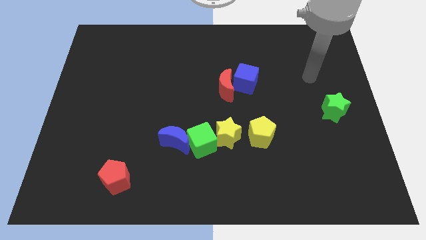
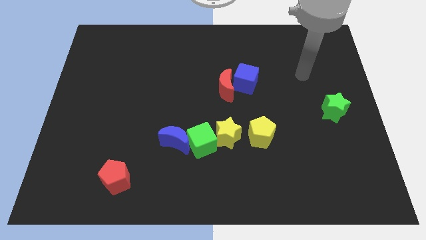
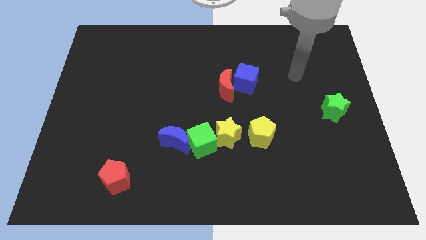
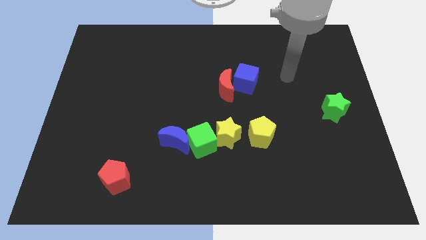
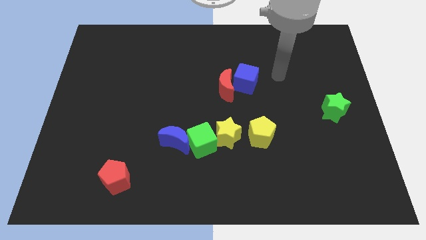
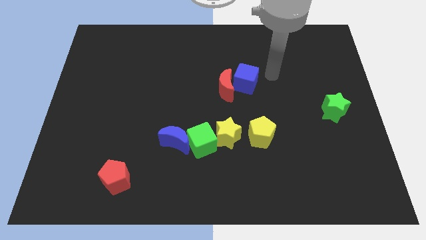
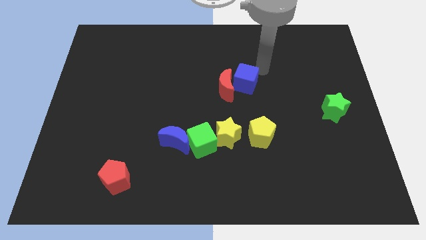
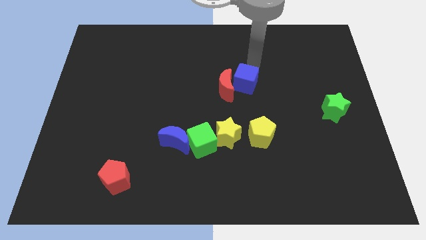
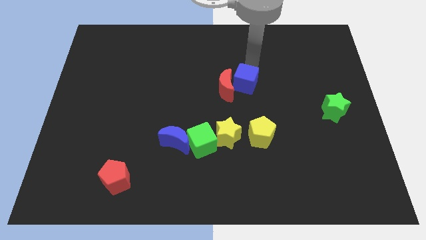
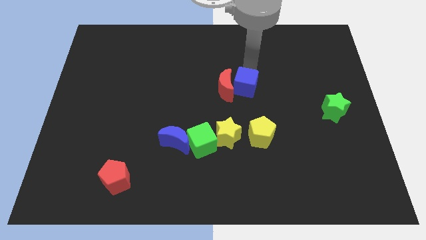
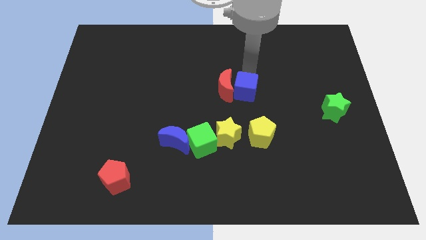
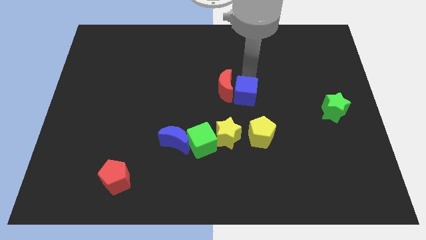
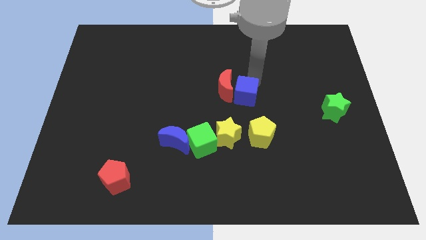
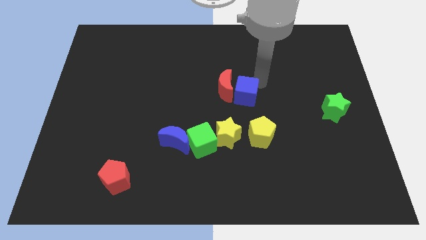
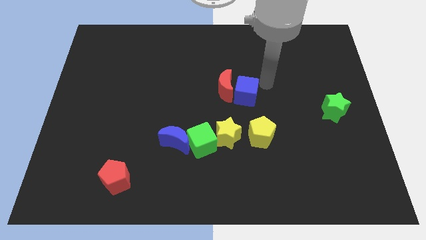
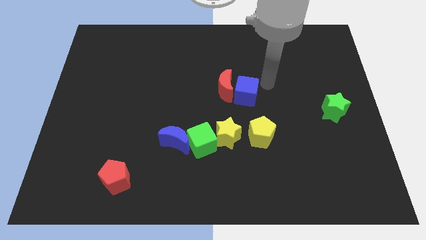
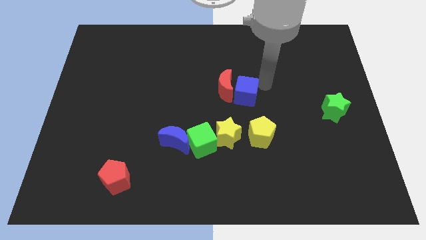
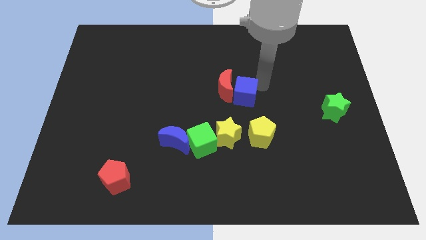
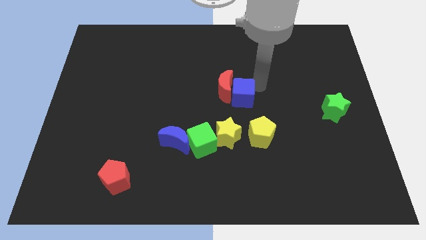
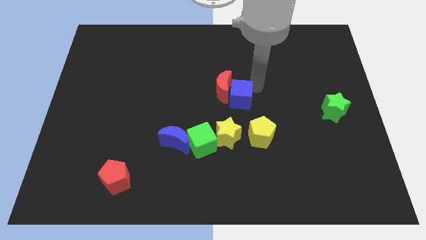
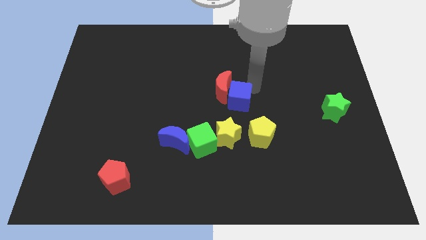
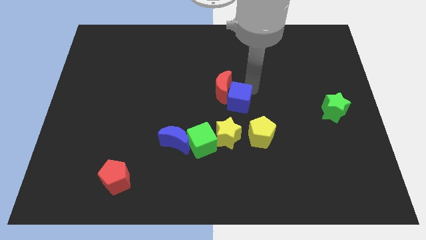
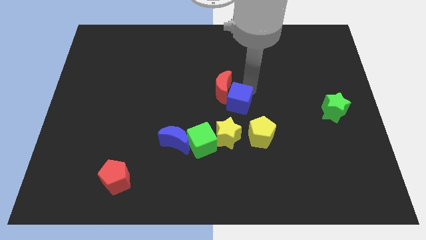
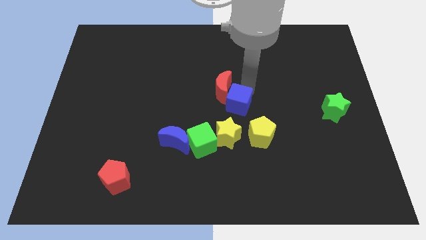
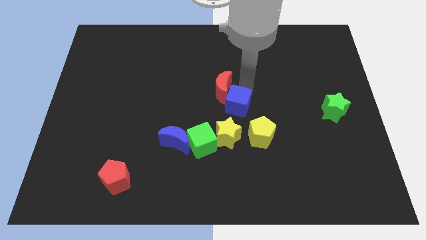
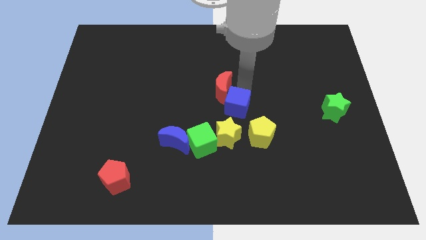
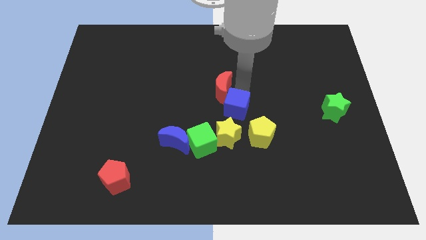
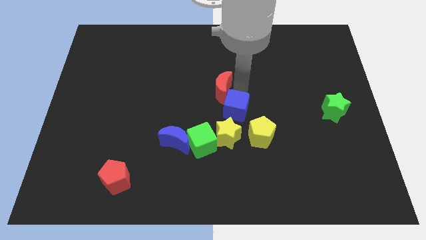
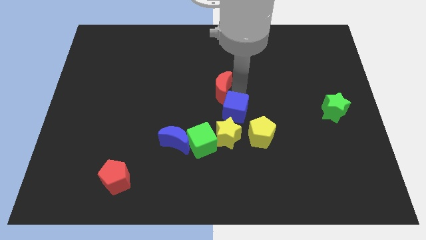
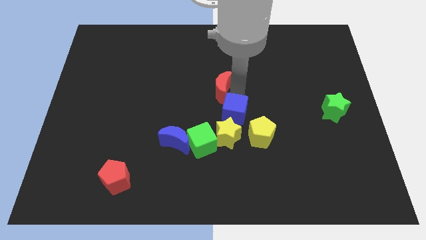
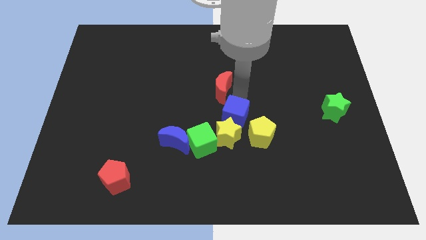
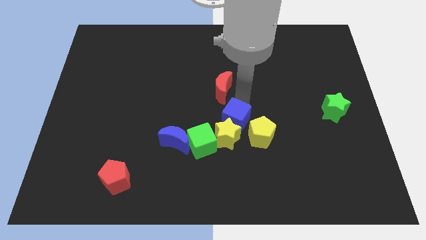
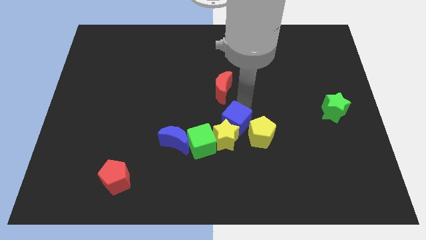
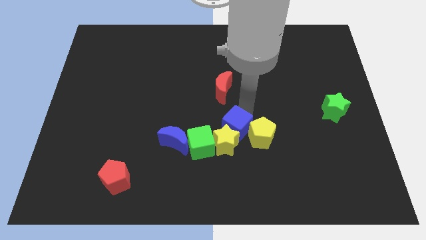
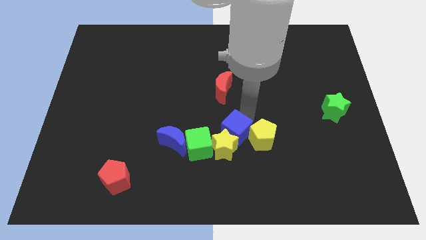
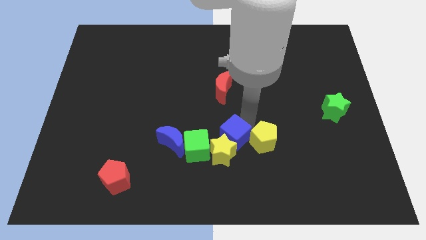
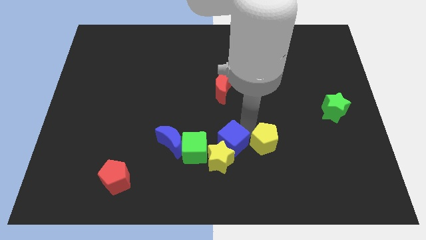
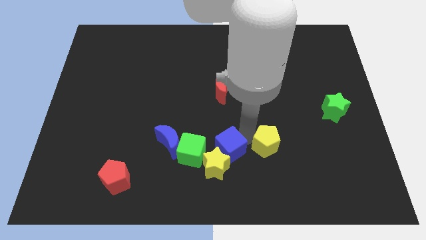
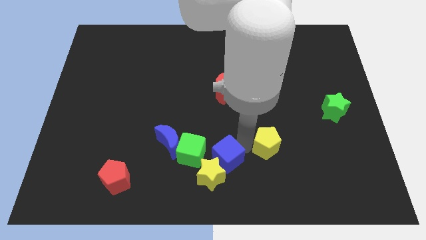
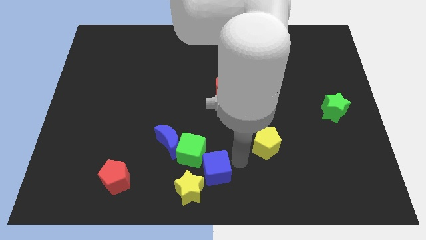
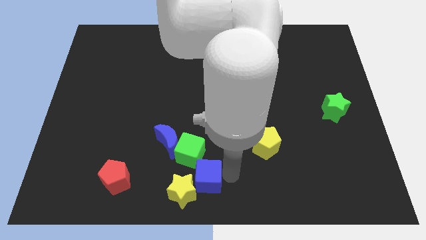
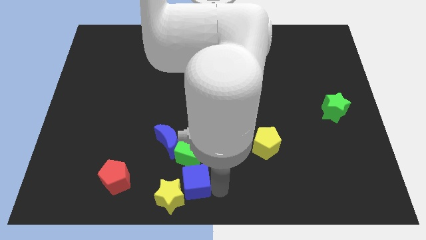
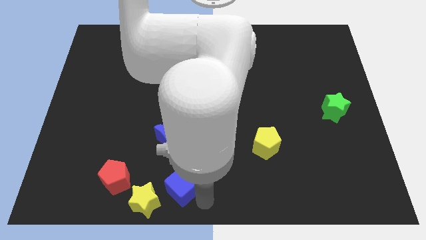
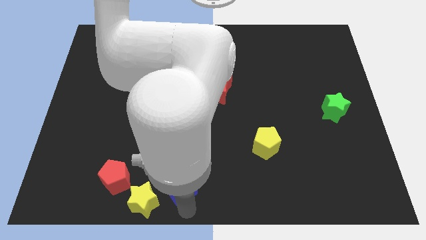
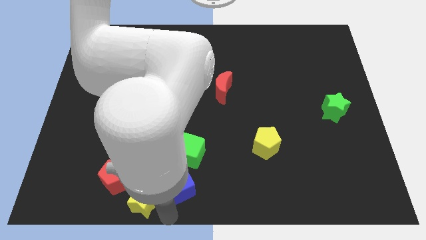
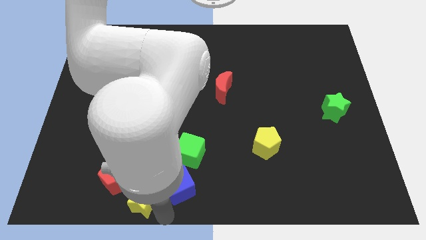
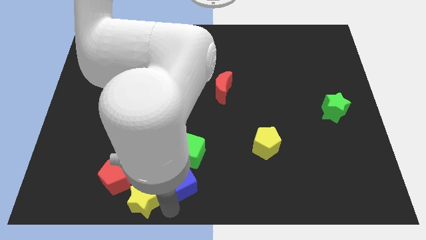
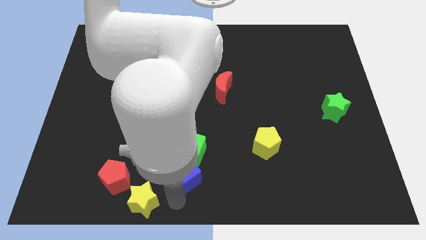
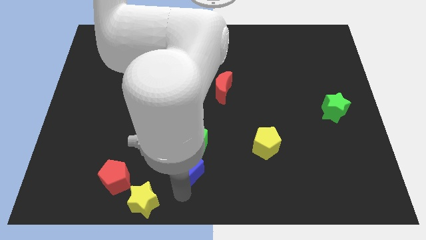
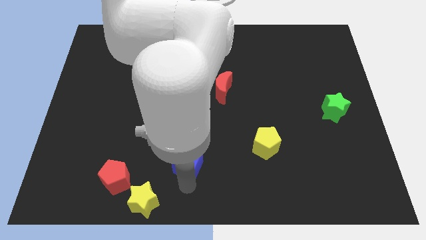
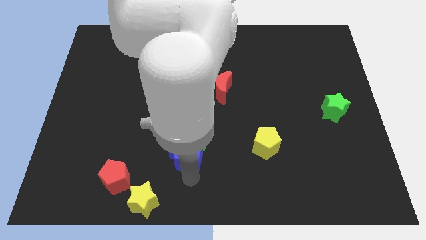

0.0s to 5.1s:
move the blue cube to the blue moon

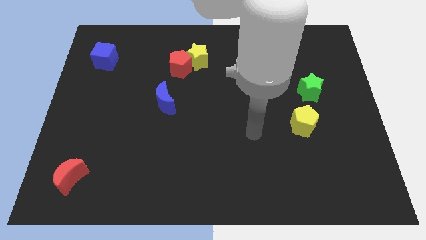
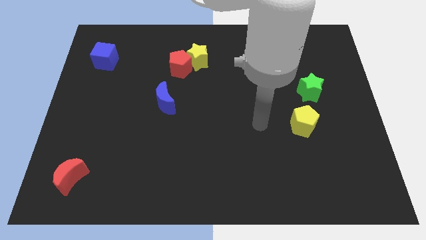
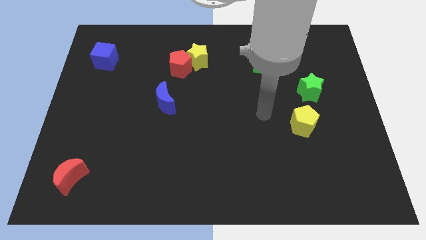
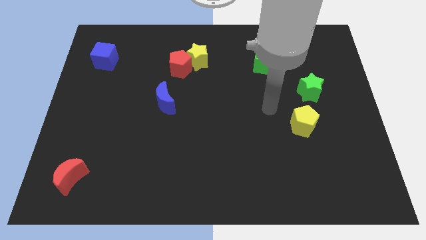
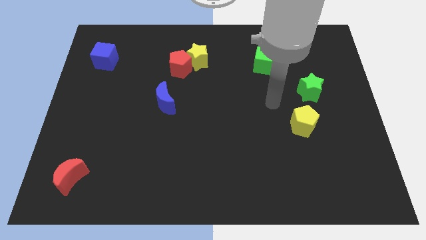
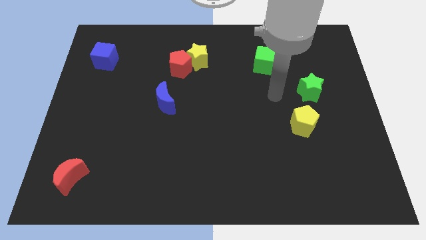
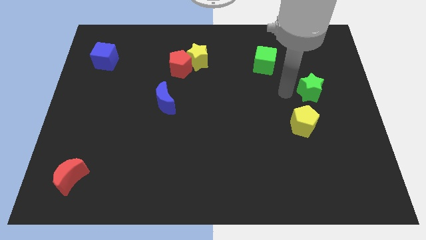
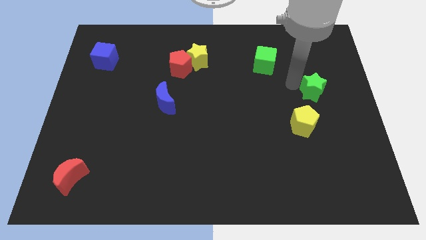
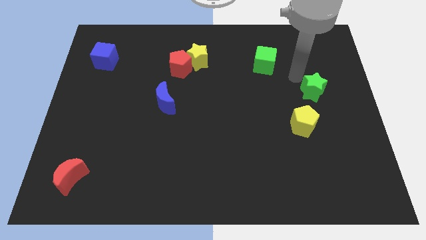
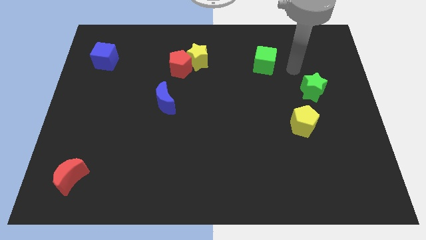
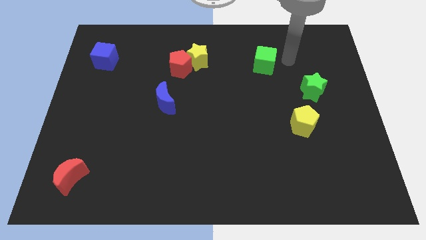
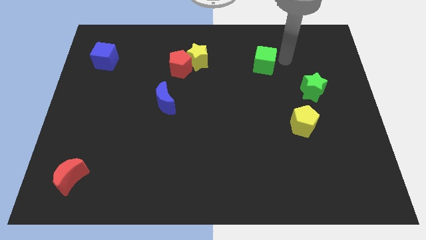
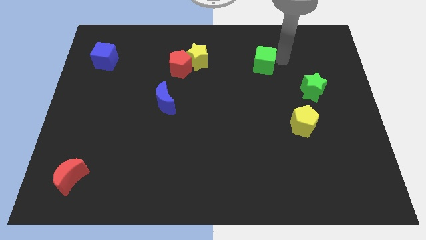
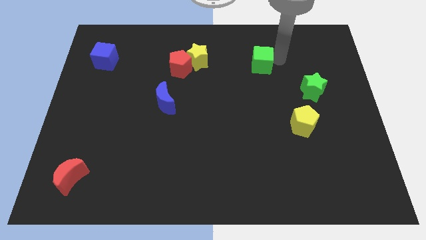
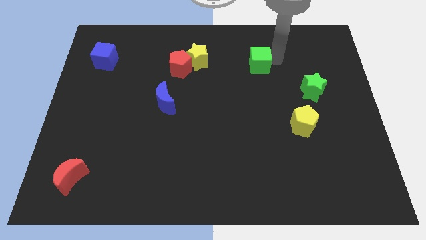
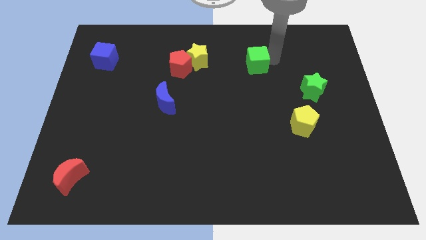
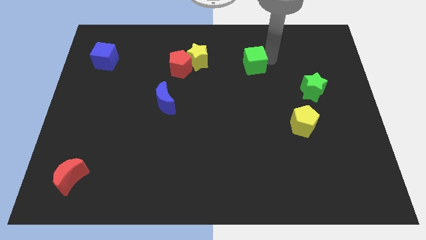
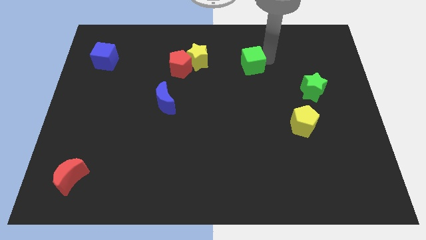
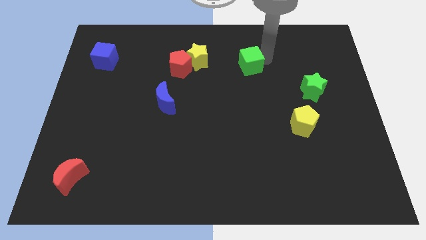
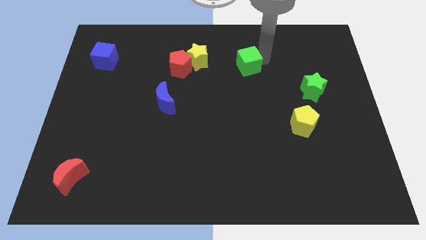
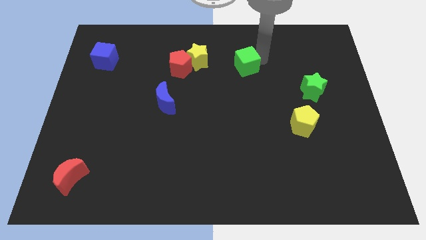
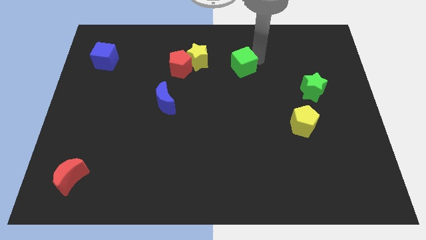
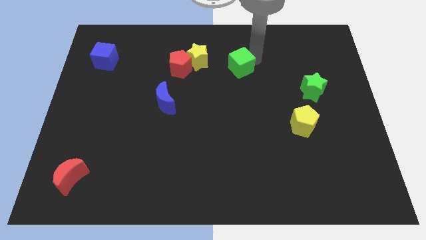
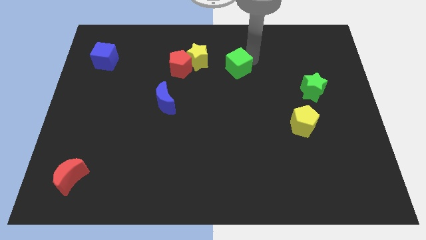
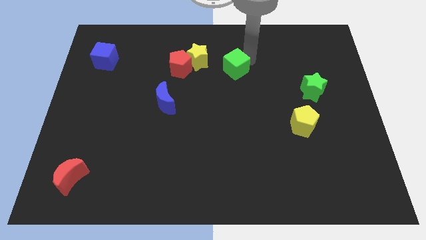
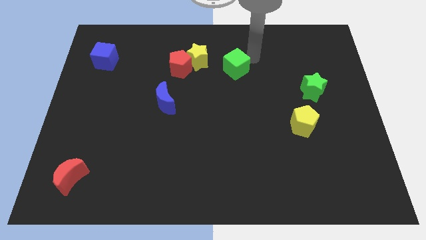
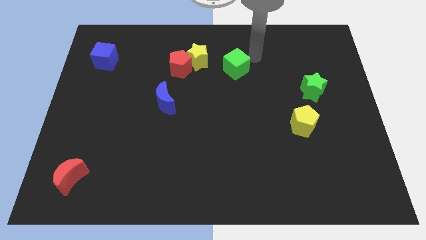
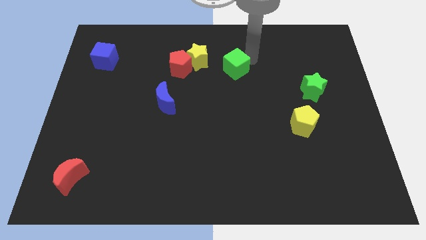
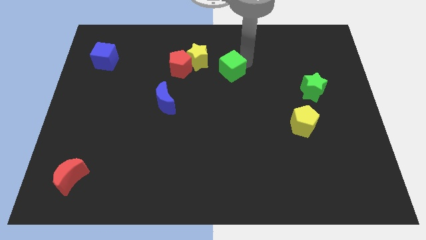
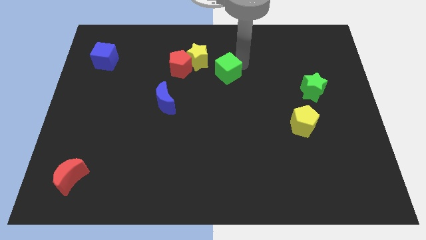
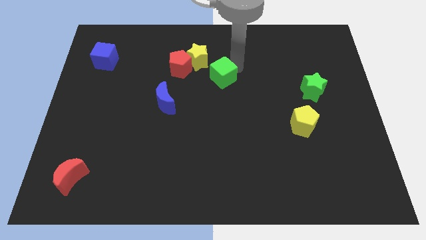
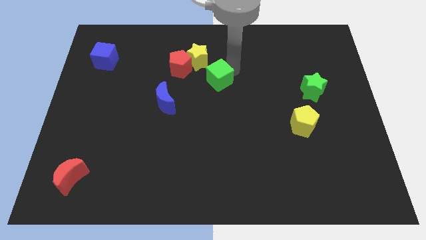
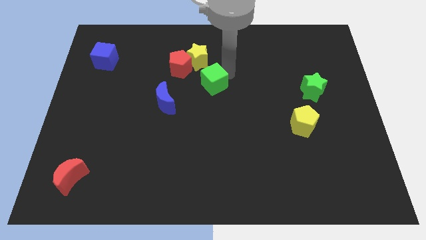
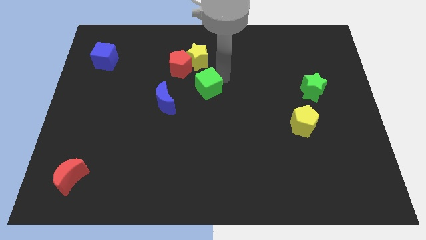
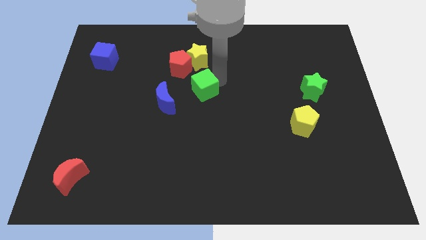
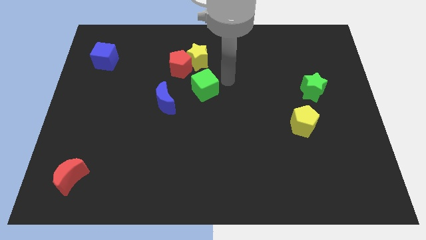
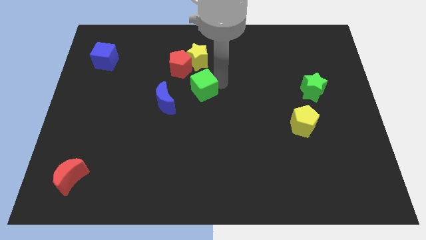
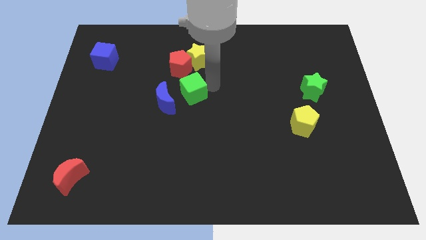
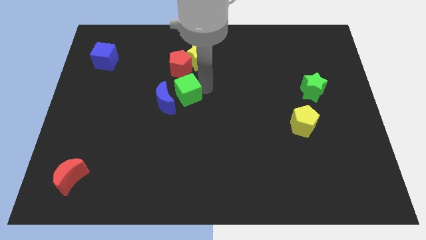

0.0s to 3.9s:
move the green cube to the blue moon
